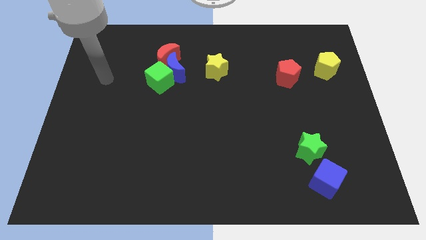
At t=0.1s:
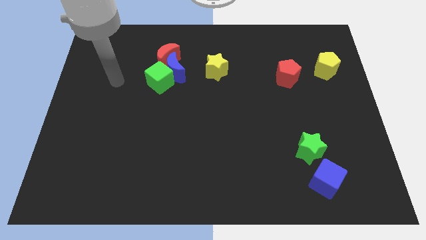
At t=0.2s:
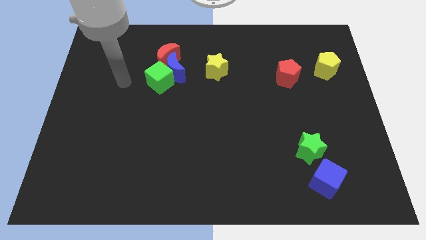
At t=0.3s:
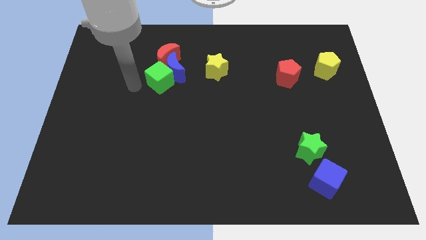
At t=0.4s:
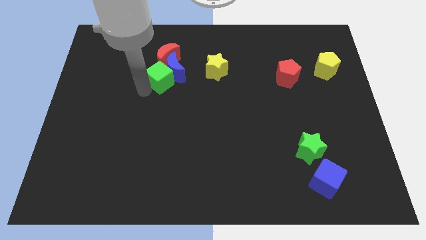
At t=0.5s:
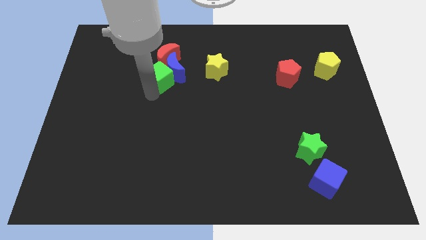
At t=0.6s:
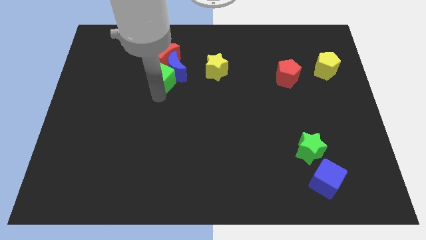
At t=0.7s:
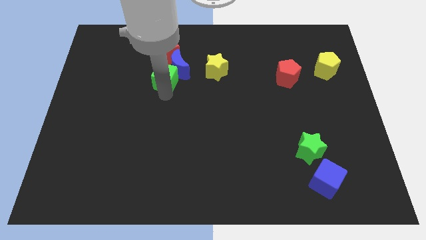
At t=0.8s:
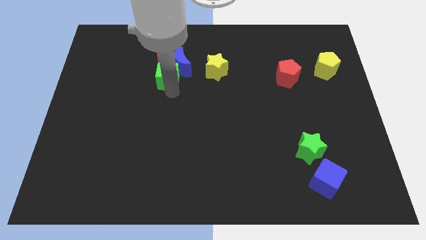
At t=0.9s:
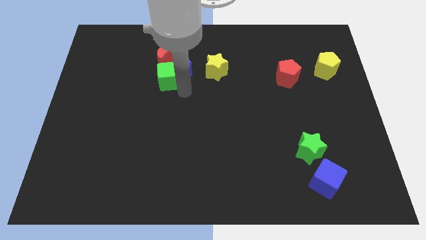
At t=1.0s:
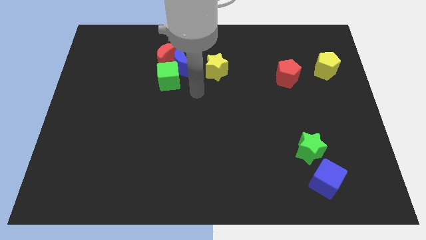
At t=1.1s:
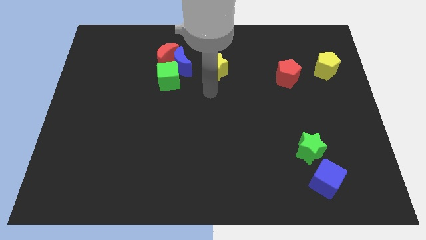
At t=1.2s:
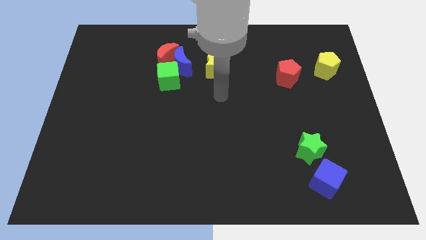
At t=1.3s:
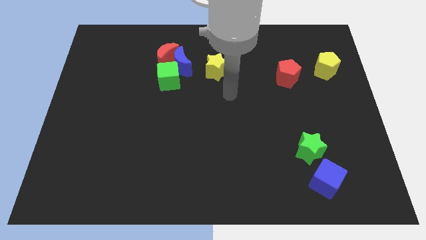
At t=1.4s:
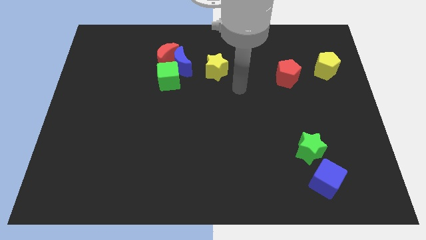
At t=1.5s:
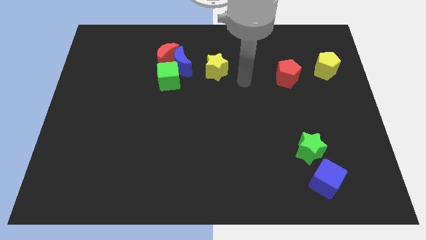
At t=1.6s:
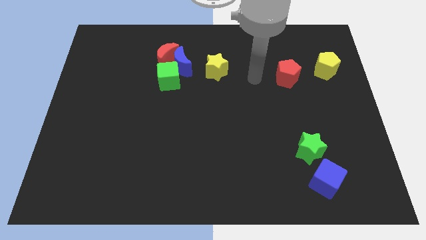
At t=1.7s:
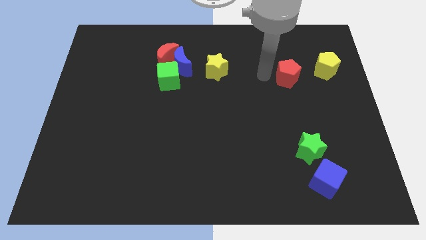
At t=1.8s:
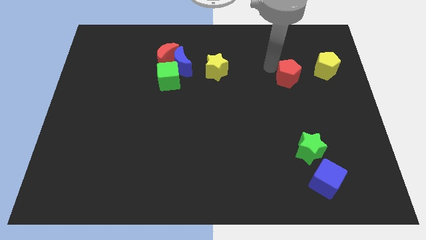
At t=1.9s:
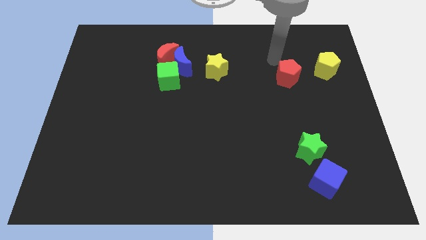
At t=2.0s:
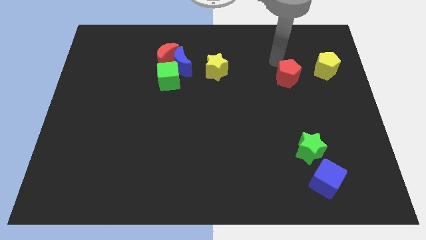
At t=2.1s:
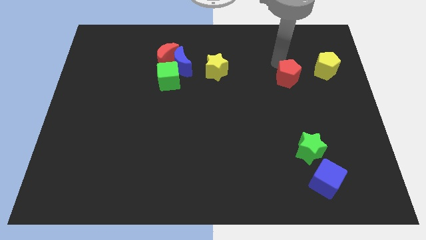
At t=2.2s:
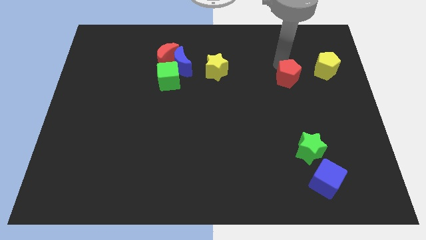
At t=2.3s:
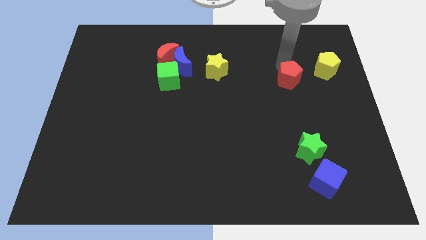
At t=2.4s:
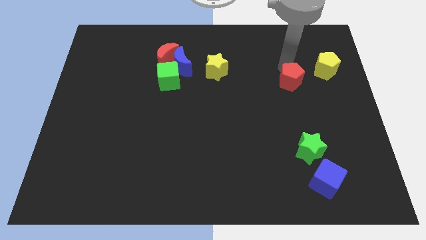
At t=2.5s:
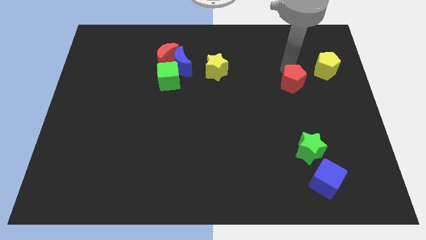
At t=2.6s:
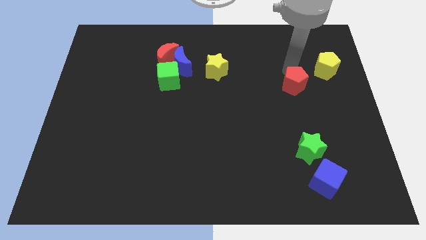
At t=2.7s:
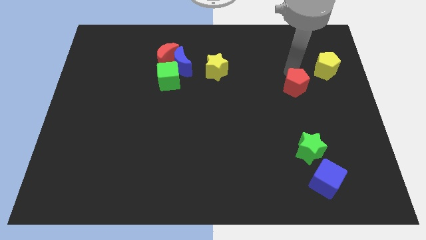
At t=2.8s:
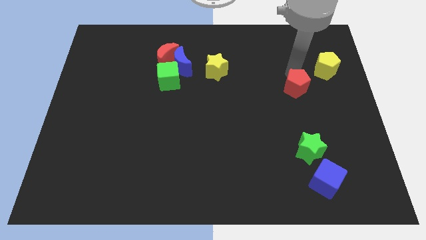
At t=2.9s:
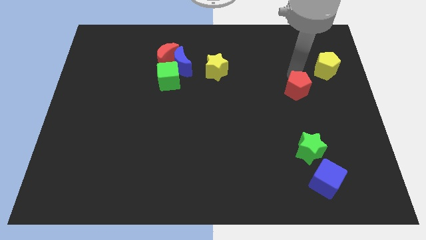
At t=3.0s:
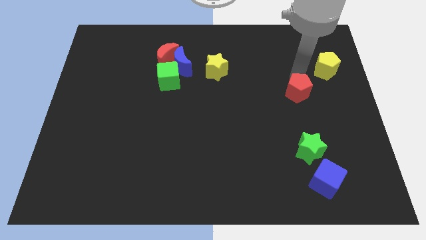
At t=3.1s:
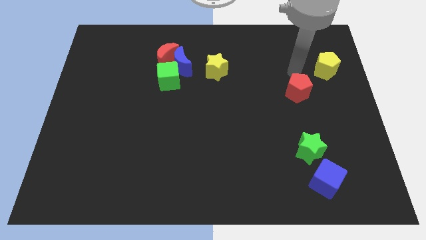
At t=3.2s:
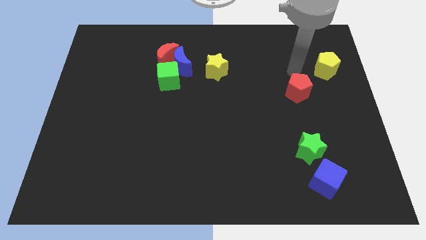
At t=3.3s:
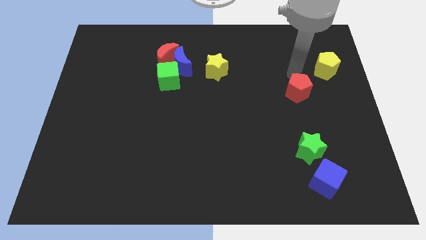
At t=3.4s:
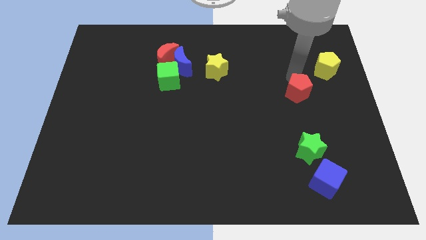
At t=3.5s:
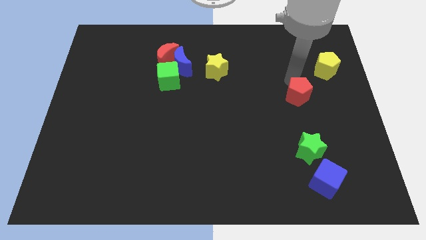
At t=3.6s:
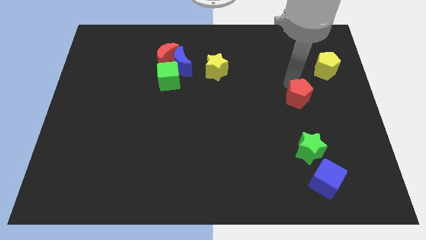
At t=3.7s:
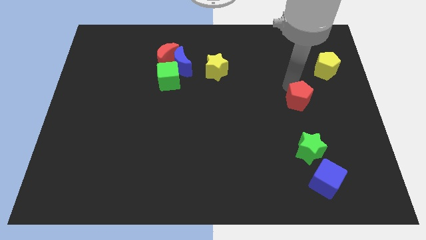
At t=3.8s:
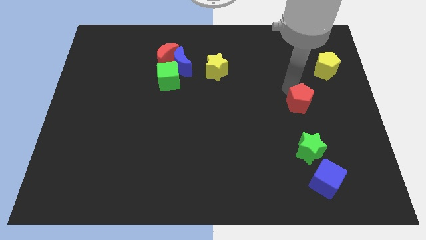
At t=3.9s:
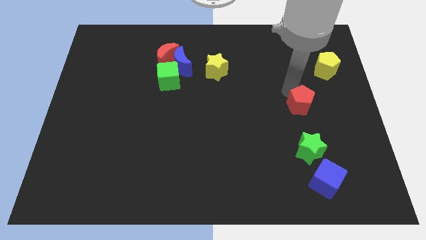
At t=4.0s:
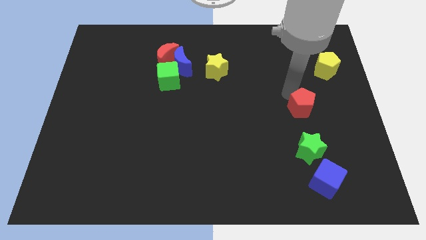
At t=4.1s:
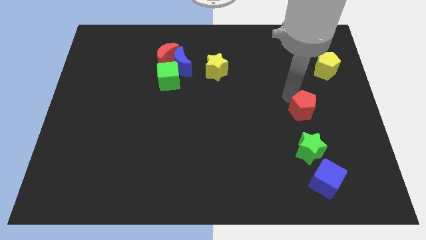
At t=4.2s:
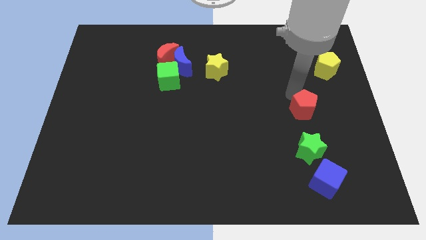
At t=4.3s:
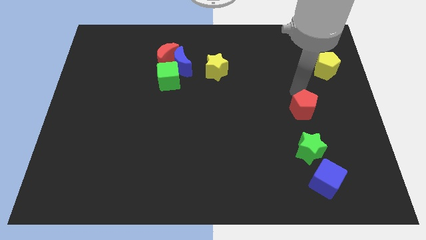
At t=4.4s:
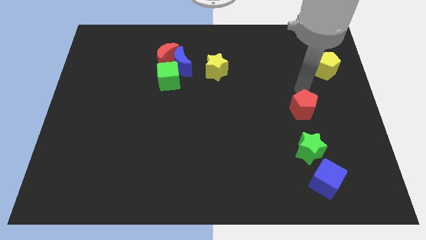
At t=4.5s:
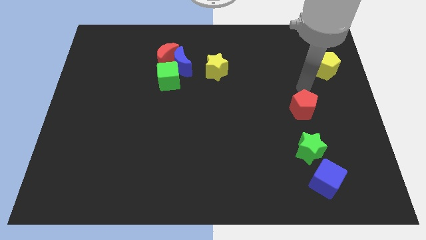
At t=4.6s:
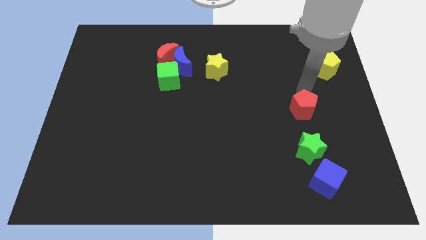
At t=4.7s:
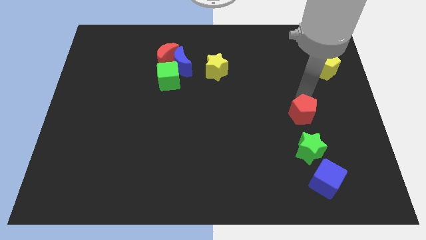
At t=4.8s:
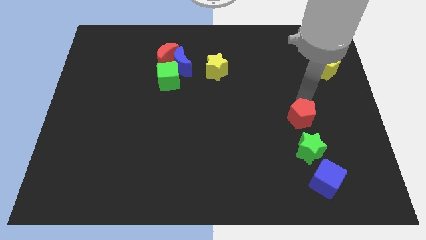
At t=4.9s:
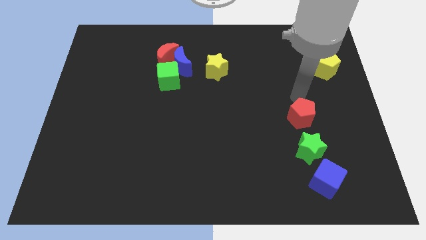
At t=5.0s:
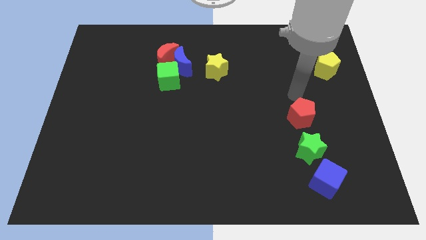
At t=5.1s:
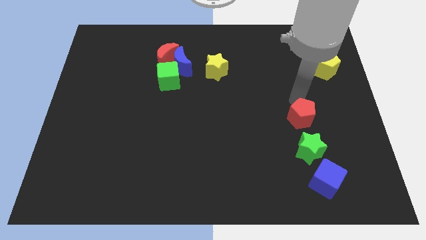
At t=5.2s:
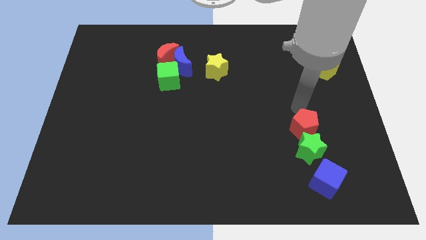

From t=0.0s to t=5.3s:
move the red pentagon next to the green star

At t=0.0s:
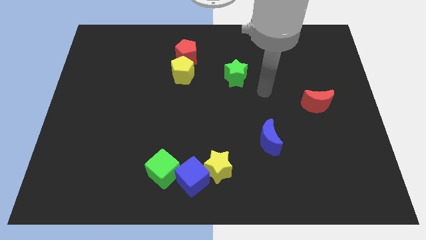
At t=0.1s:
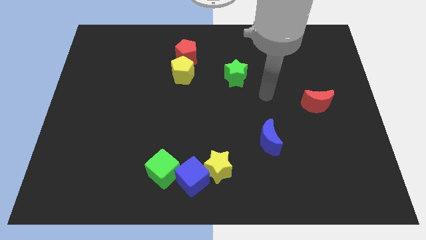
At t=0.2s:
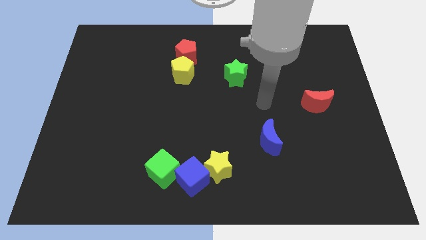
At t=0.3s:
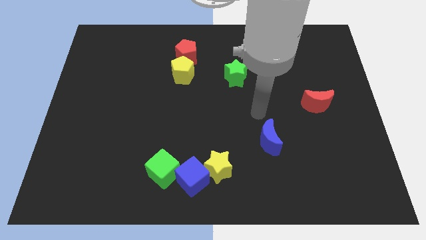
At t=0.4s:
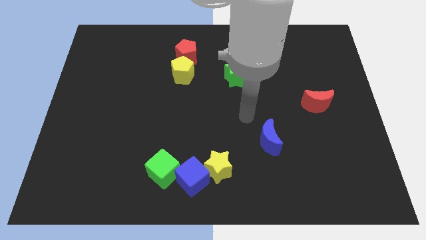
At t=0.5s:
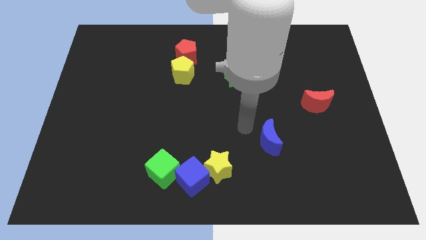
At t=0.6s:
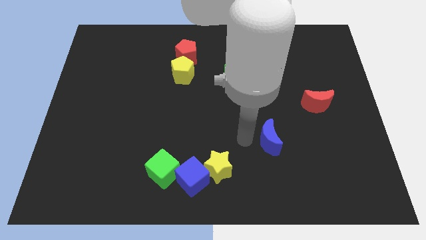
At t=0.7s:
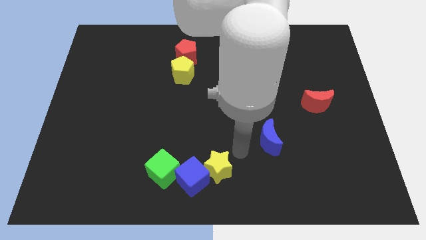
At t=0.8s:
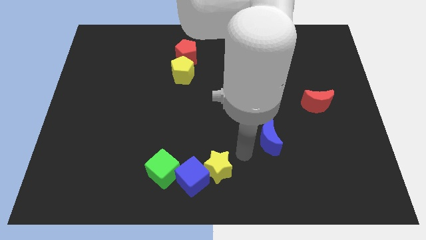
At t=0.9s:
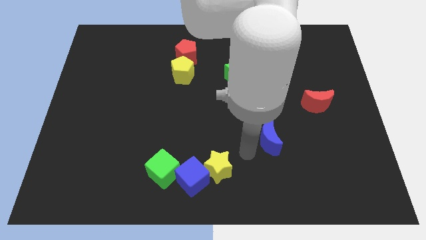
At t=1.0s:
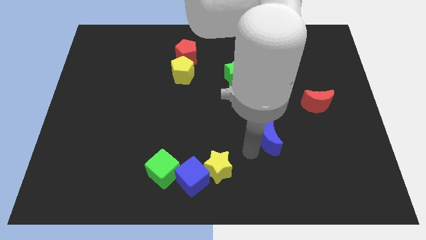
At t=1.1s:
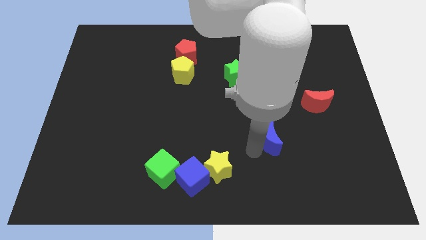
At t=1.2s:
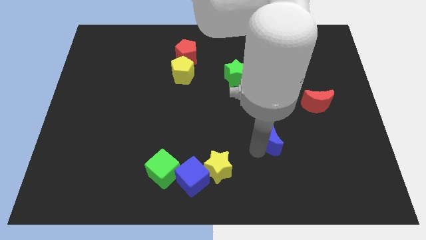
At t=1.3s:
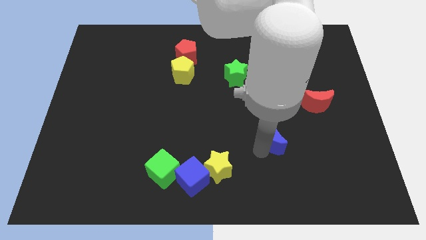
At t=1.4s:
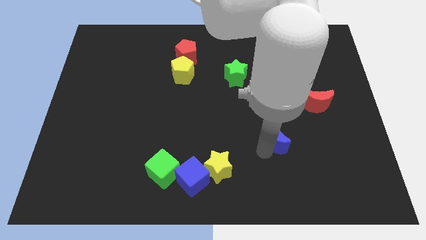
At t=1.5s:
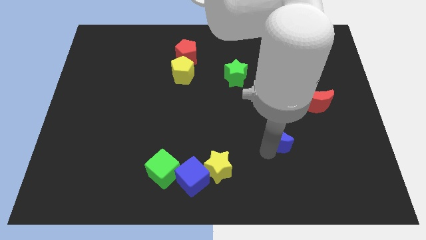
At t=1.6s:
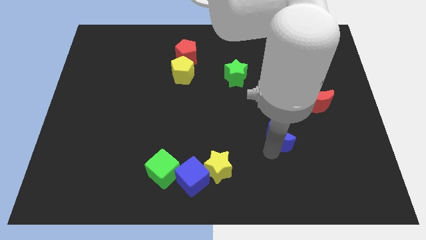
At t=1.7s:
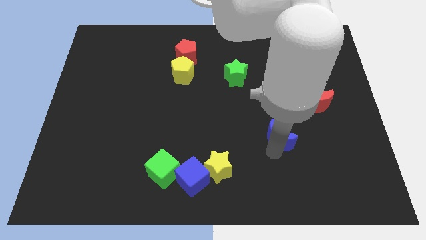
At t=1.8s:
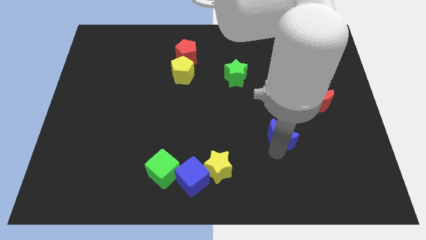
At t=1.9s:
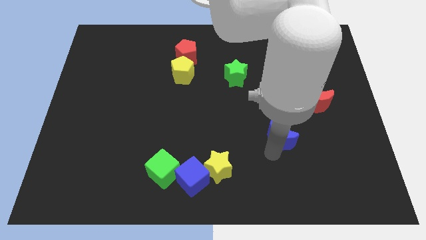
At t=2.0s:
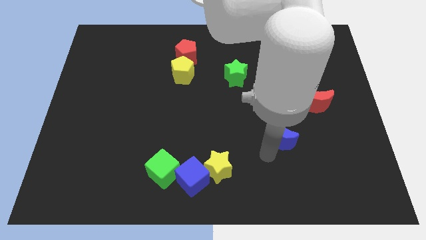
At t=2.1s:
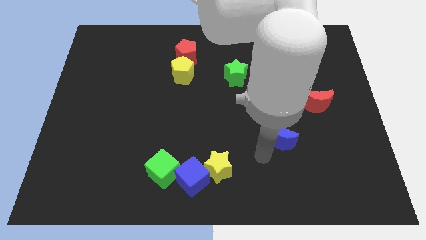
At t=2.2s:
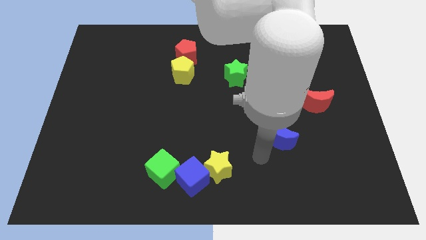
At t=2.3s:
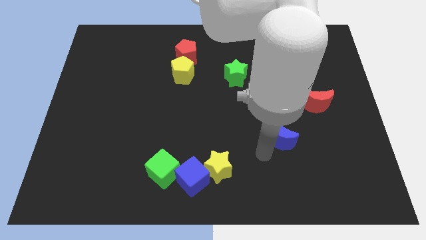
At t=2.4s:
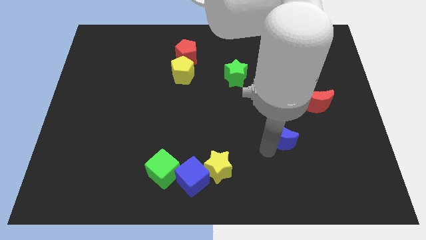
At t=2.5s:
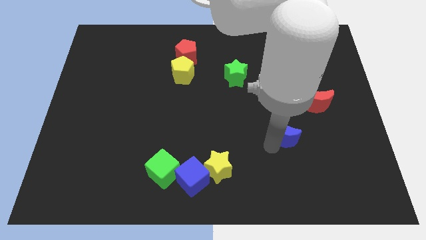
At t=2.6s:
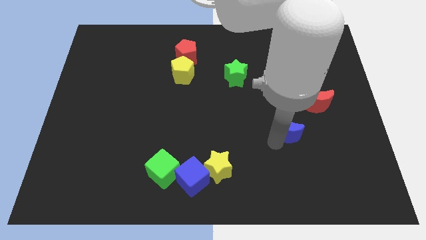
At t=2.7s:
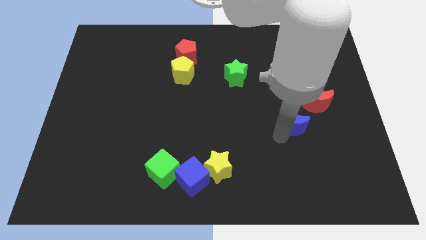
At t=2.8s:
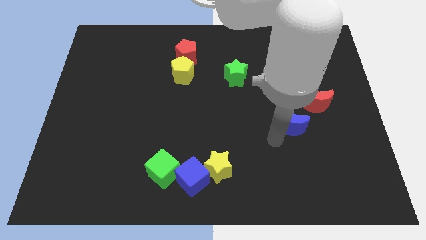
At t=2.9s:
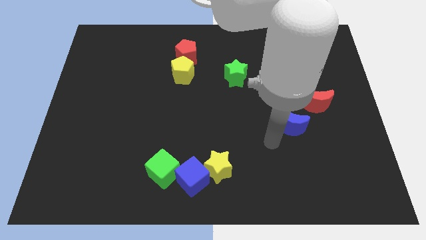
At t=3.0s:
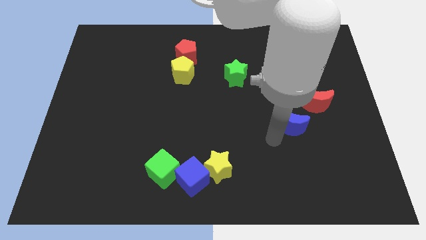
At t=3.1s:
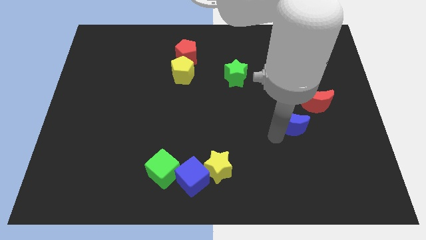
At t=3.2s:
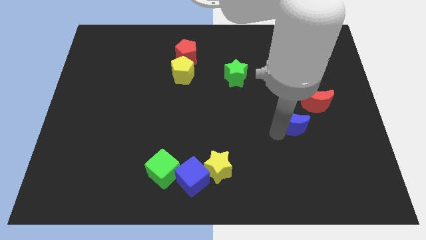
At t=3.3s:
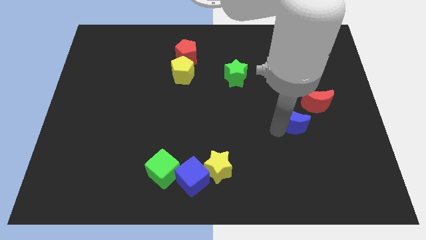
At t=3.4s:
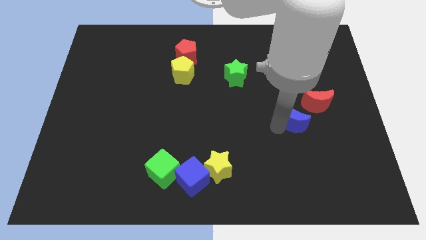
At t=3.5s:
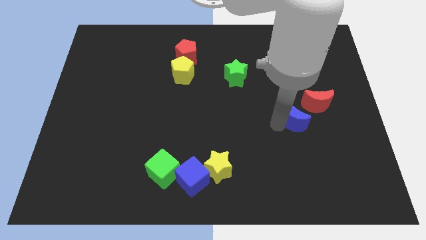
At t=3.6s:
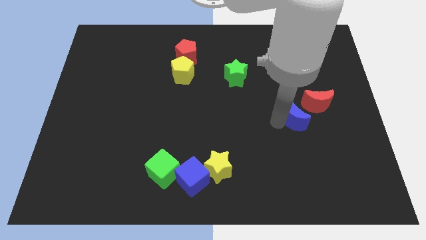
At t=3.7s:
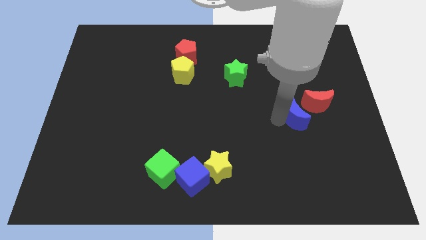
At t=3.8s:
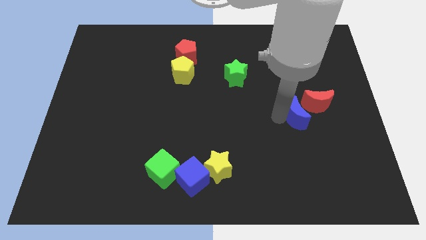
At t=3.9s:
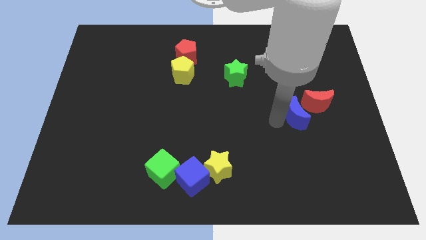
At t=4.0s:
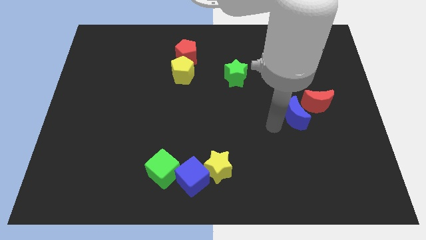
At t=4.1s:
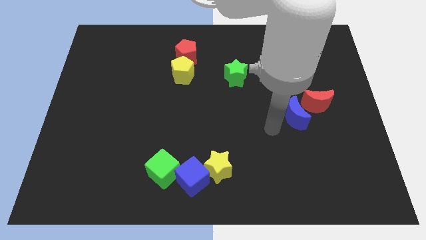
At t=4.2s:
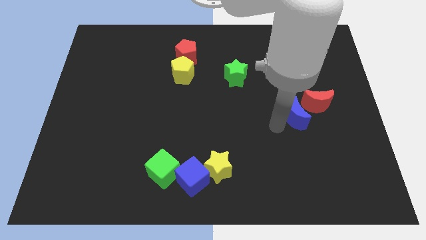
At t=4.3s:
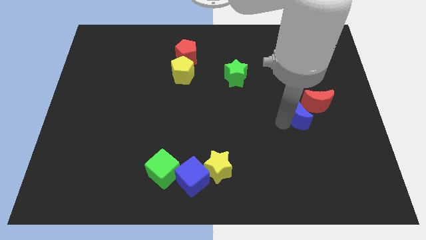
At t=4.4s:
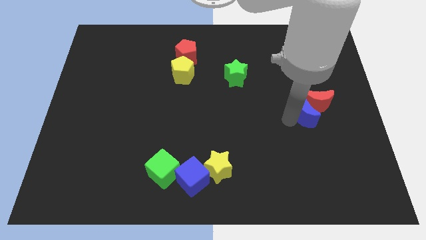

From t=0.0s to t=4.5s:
put the blue moon towards the red moon
